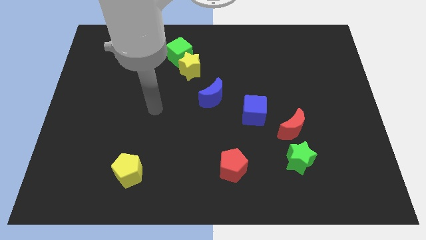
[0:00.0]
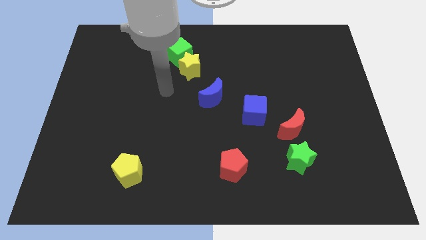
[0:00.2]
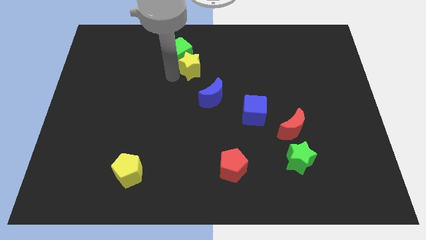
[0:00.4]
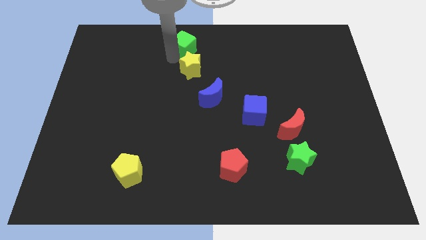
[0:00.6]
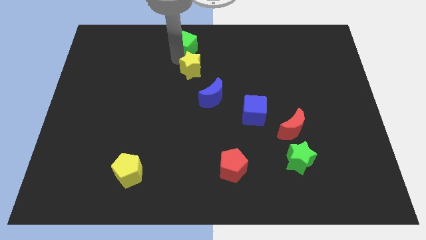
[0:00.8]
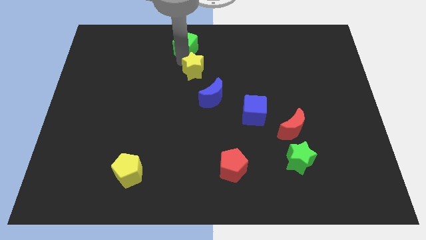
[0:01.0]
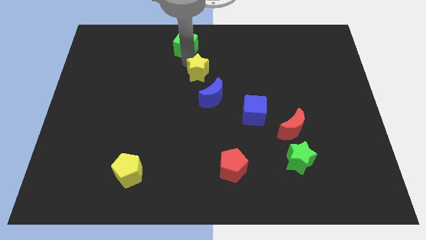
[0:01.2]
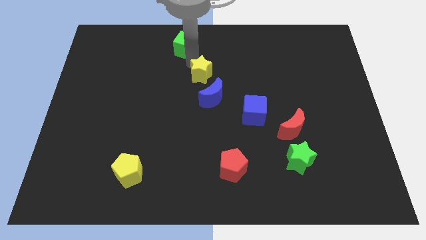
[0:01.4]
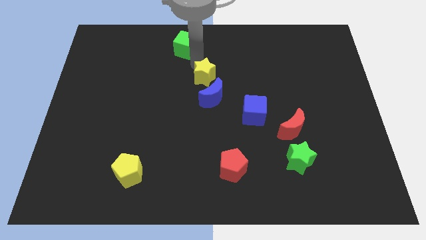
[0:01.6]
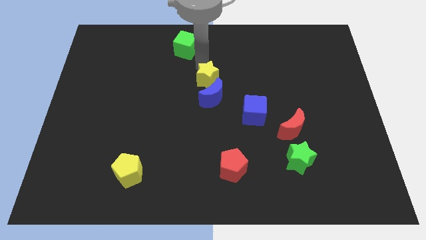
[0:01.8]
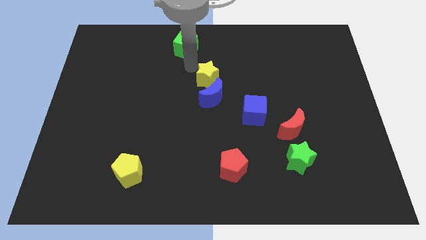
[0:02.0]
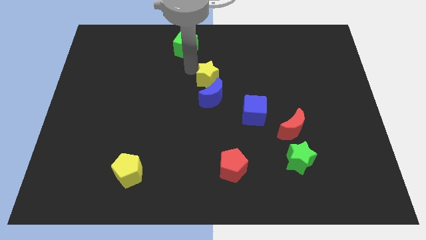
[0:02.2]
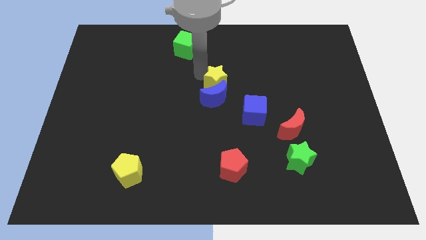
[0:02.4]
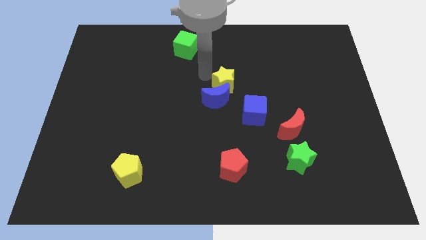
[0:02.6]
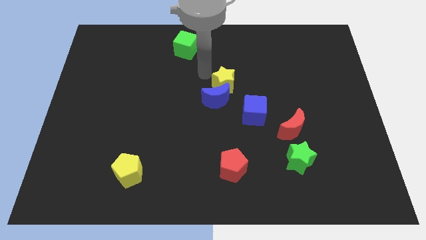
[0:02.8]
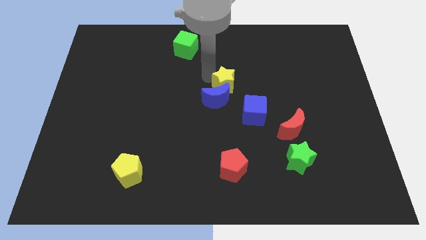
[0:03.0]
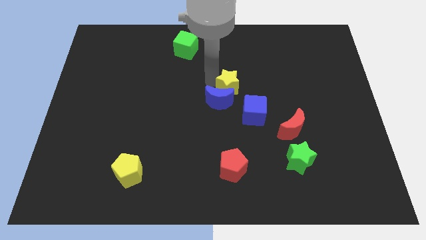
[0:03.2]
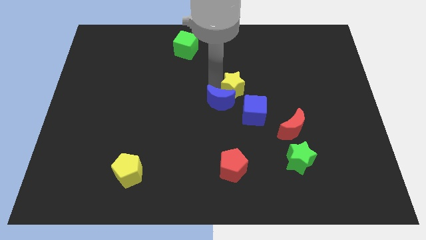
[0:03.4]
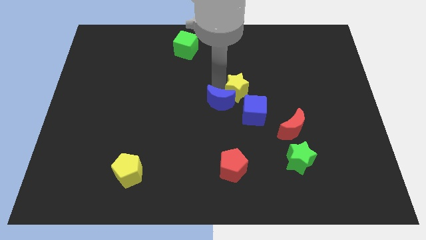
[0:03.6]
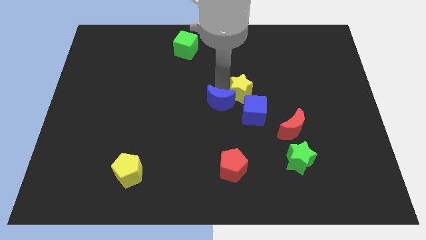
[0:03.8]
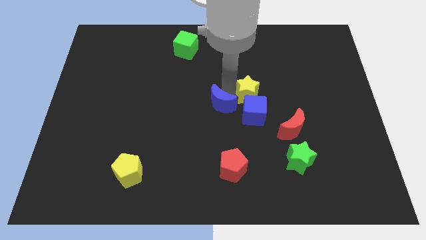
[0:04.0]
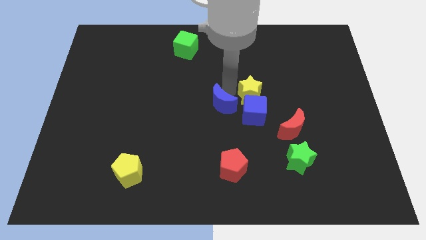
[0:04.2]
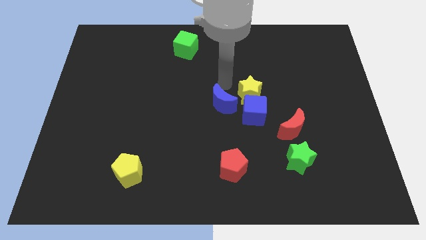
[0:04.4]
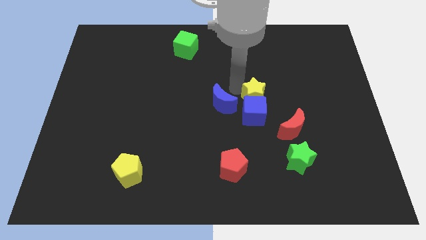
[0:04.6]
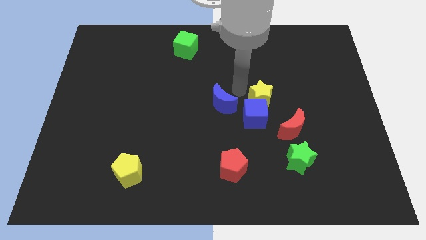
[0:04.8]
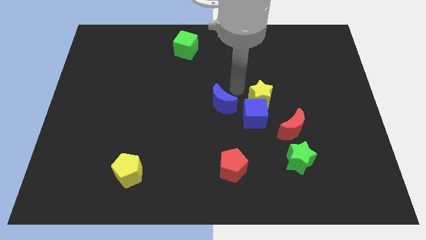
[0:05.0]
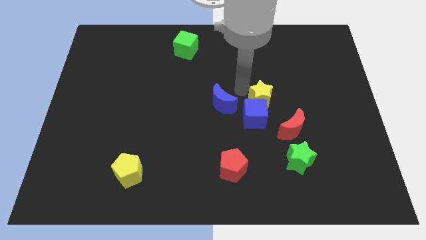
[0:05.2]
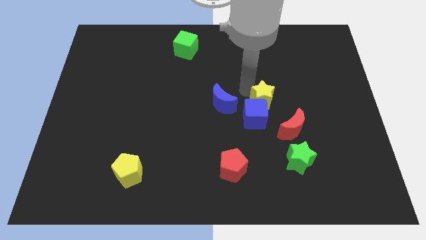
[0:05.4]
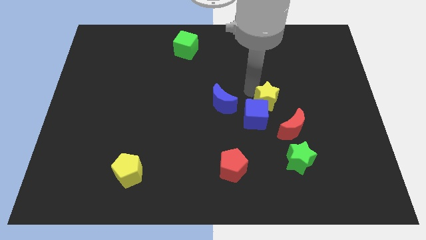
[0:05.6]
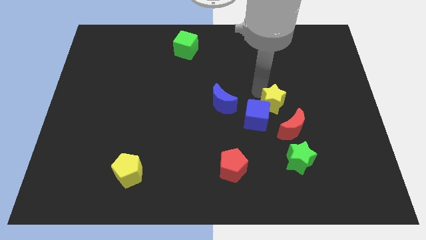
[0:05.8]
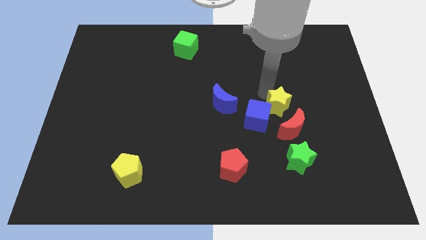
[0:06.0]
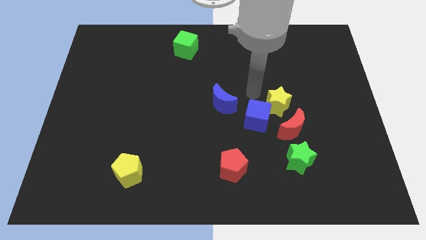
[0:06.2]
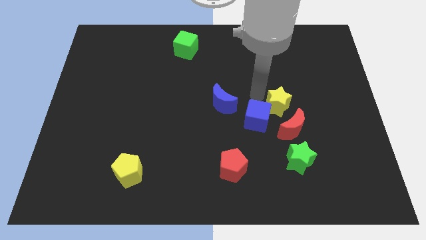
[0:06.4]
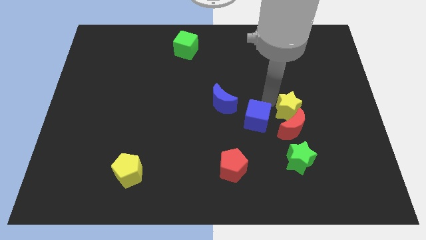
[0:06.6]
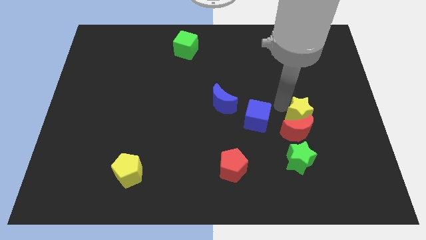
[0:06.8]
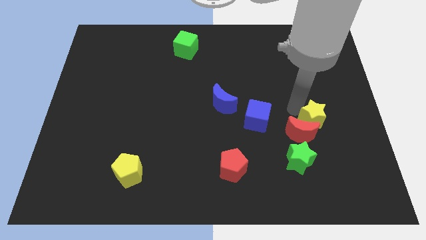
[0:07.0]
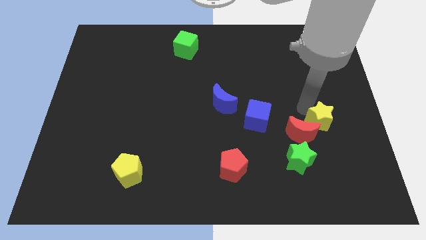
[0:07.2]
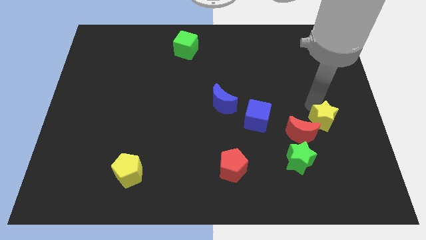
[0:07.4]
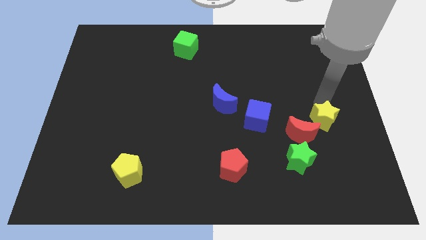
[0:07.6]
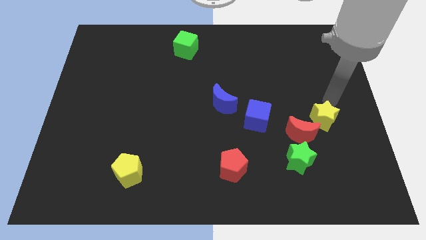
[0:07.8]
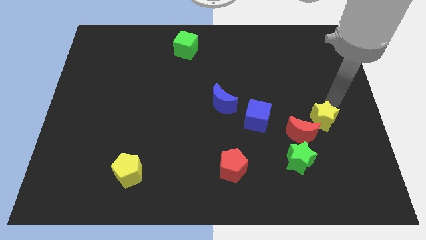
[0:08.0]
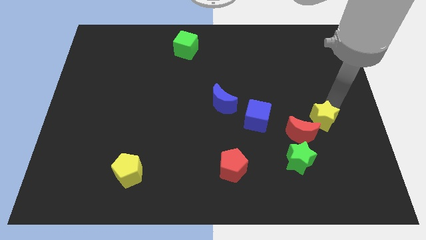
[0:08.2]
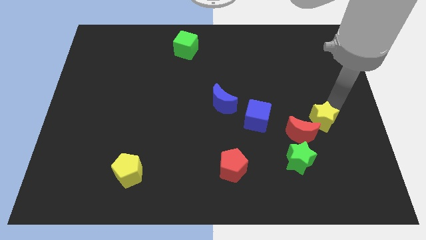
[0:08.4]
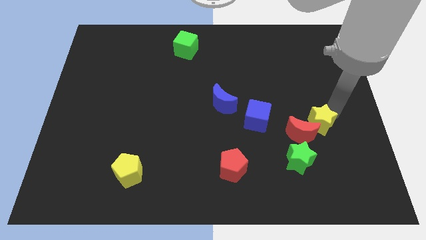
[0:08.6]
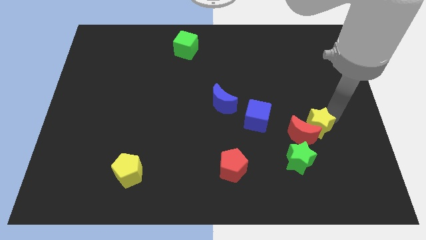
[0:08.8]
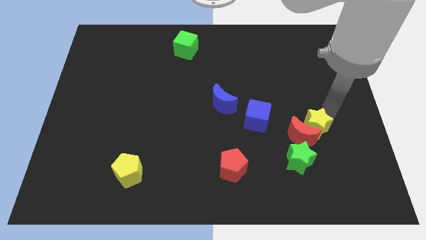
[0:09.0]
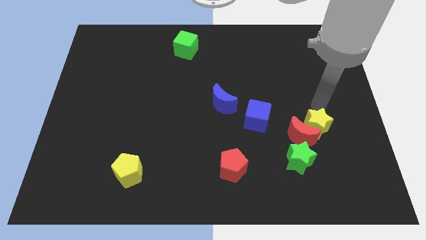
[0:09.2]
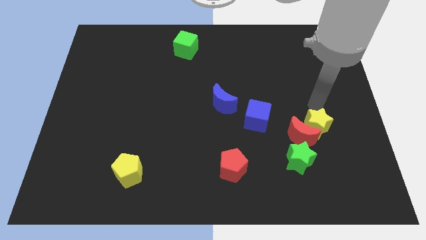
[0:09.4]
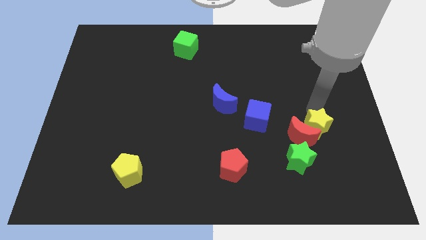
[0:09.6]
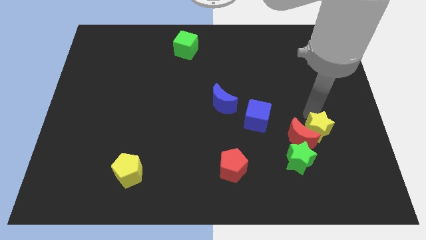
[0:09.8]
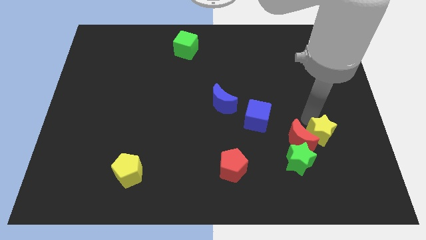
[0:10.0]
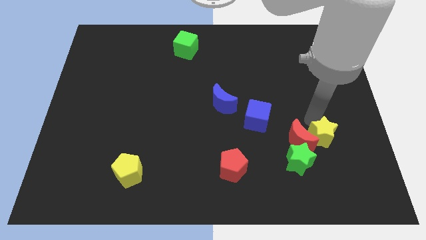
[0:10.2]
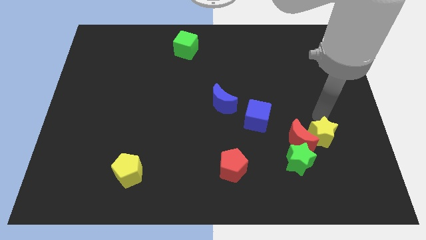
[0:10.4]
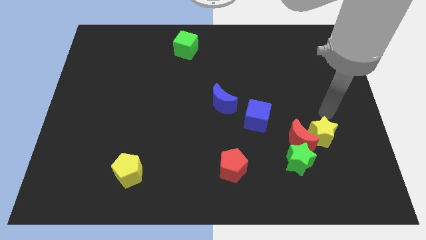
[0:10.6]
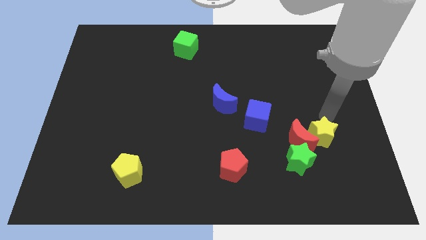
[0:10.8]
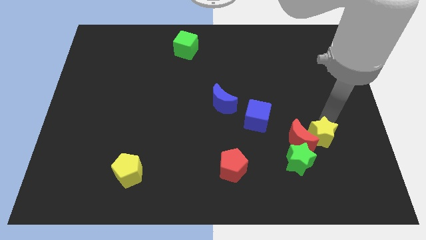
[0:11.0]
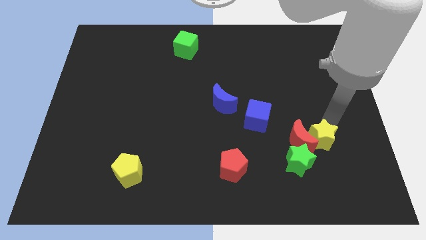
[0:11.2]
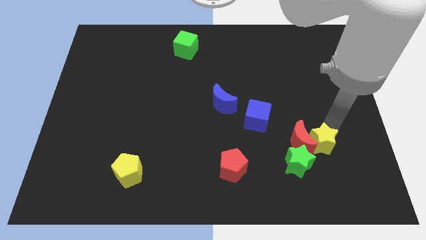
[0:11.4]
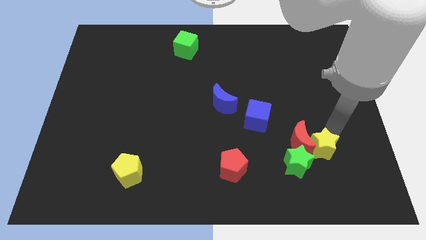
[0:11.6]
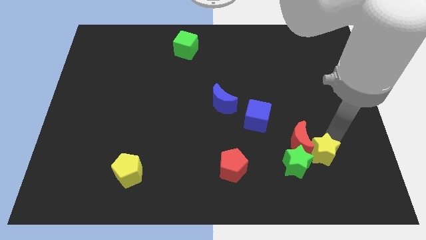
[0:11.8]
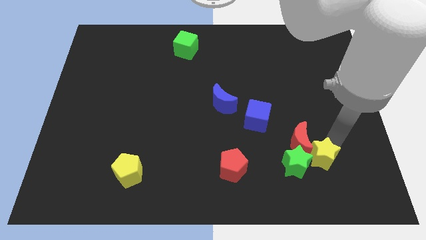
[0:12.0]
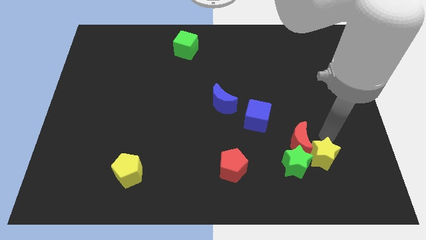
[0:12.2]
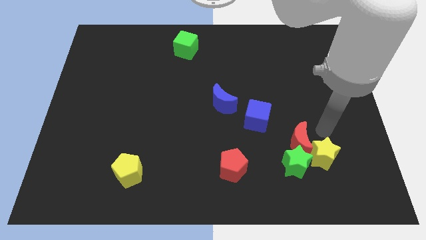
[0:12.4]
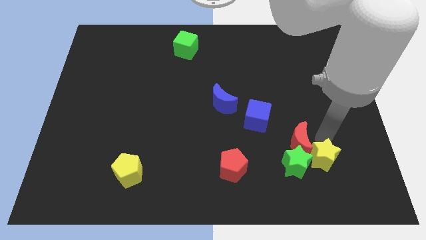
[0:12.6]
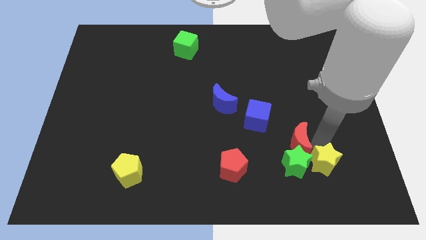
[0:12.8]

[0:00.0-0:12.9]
move the yellow star to the bottom right of the green star

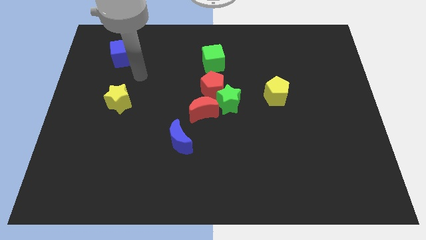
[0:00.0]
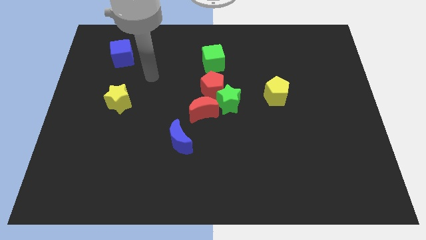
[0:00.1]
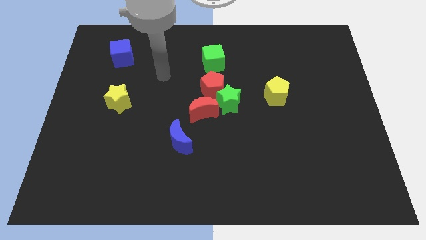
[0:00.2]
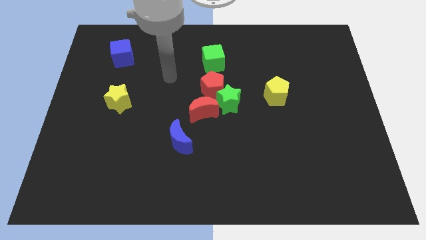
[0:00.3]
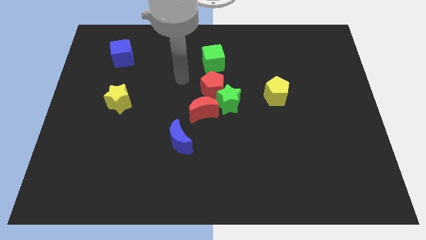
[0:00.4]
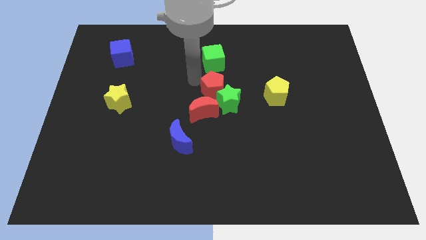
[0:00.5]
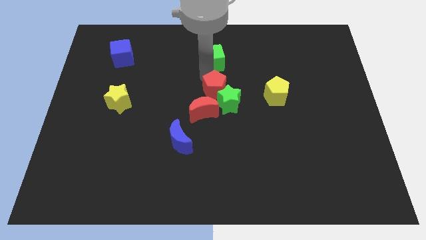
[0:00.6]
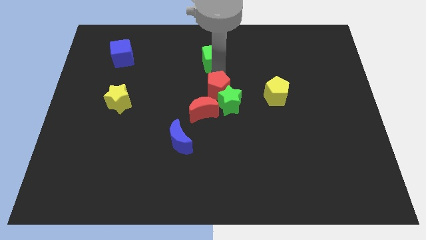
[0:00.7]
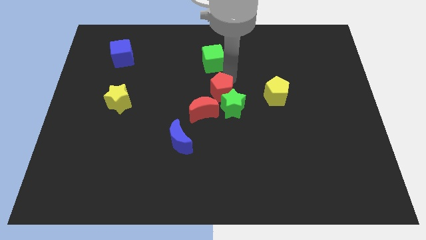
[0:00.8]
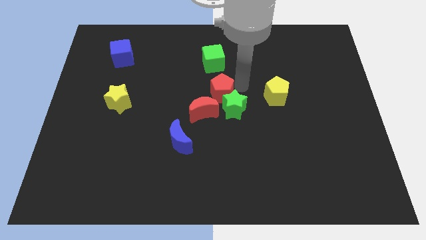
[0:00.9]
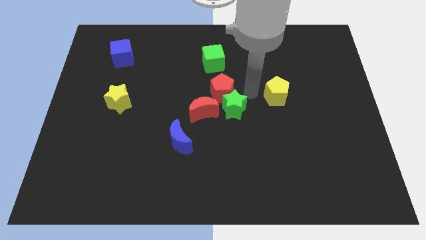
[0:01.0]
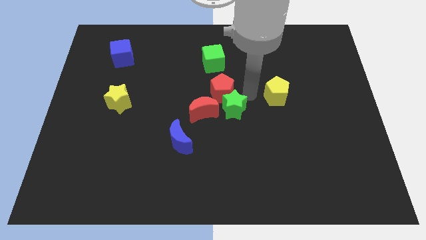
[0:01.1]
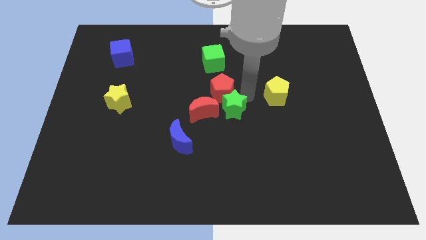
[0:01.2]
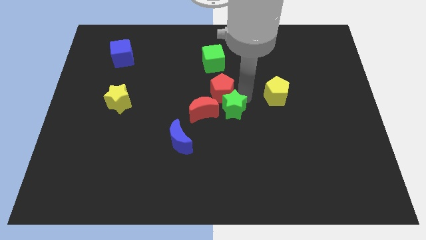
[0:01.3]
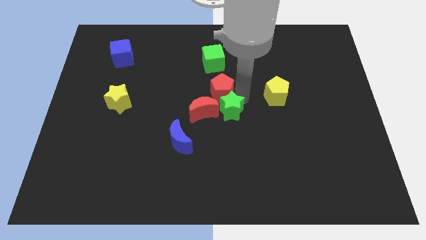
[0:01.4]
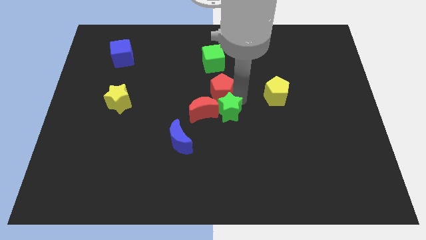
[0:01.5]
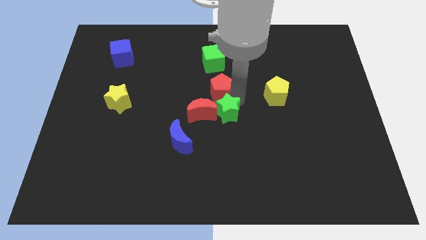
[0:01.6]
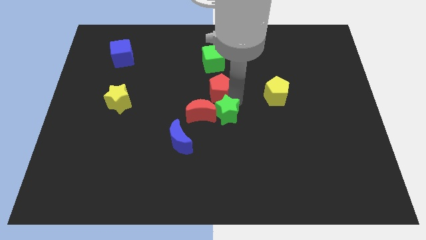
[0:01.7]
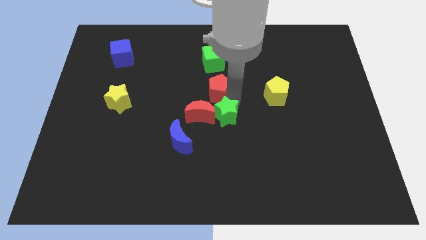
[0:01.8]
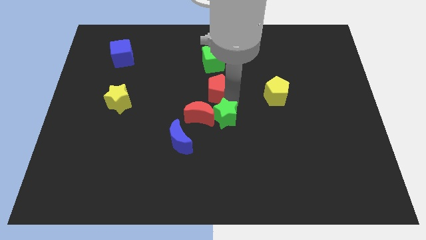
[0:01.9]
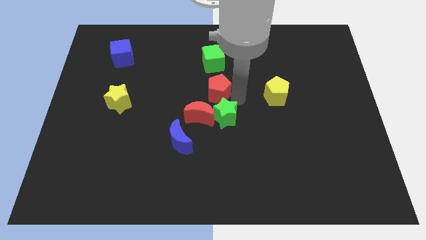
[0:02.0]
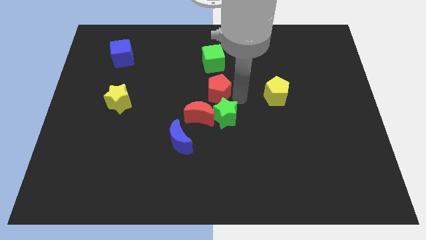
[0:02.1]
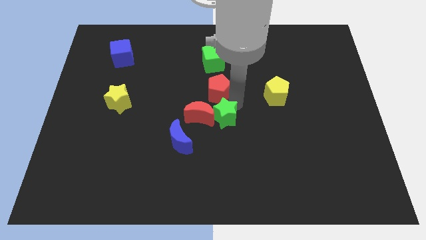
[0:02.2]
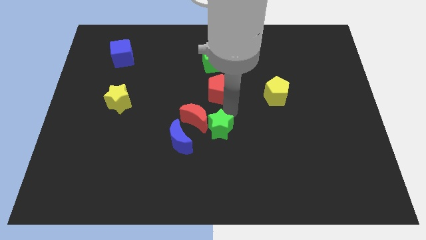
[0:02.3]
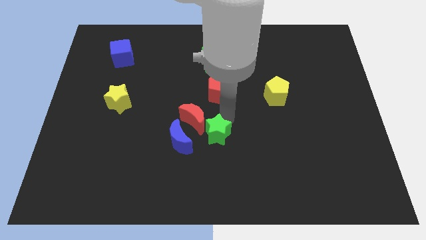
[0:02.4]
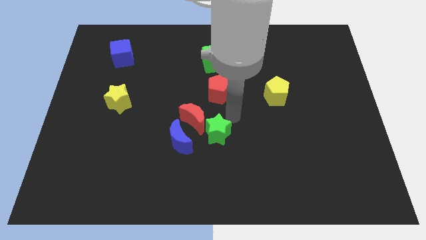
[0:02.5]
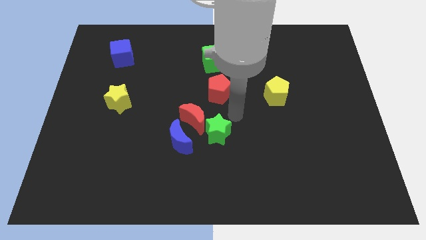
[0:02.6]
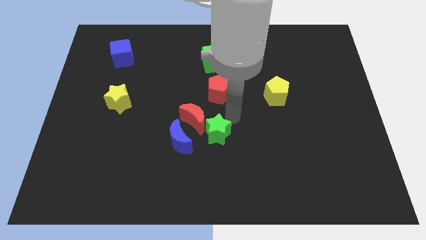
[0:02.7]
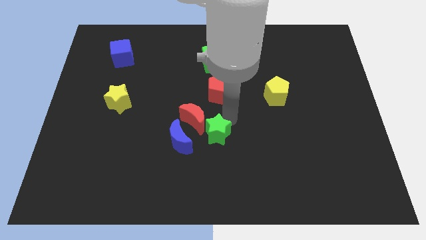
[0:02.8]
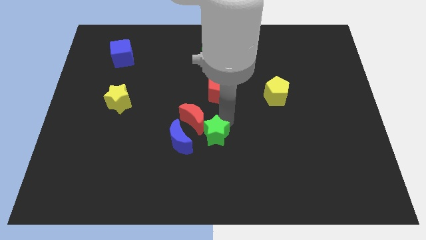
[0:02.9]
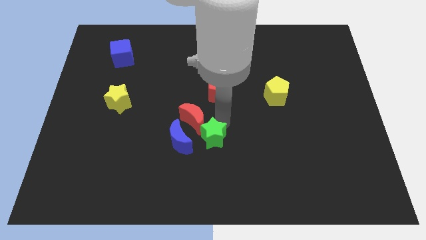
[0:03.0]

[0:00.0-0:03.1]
slide the green star below the red moon
